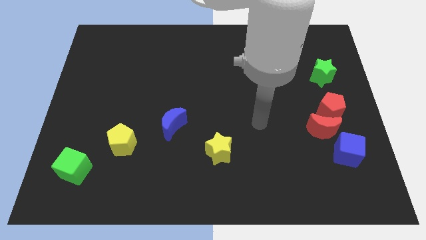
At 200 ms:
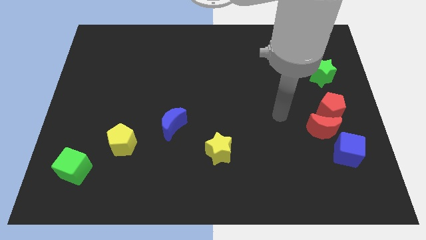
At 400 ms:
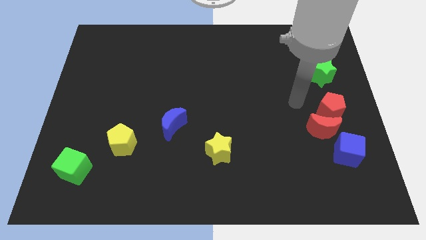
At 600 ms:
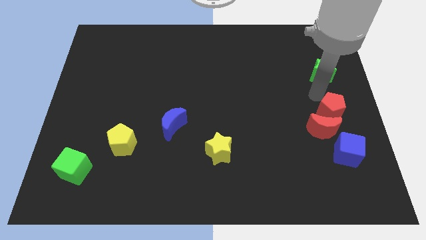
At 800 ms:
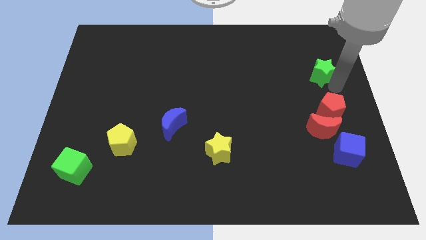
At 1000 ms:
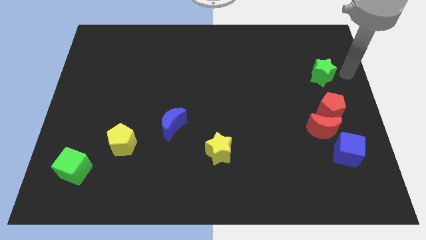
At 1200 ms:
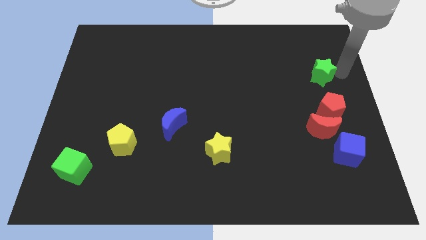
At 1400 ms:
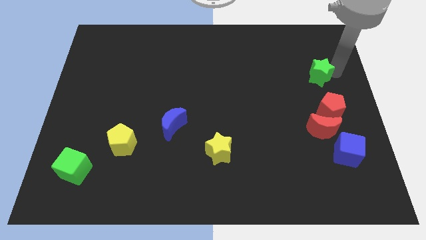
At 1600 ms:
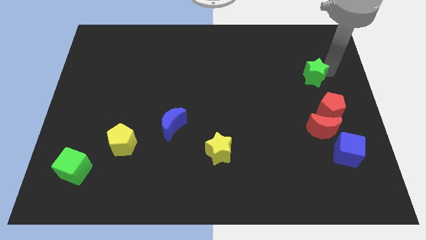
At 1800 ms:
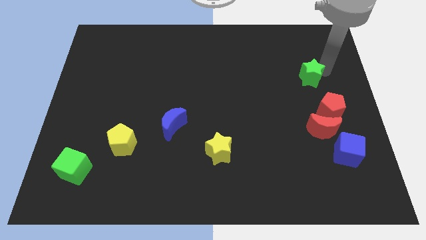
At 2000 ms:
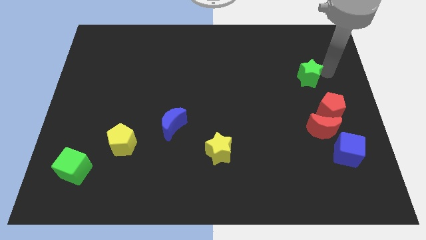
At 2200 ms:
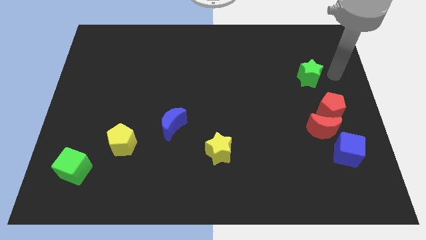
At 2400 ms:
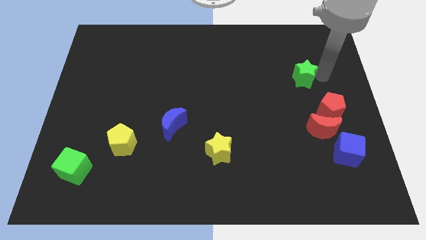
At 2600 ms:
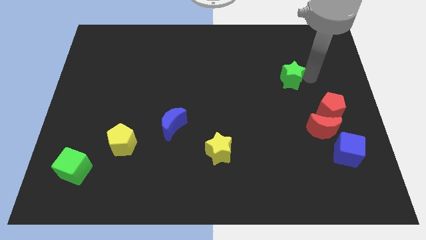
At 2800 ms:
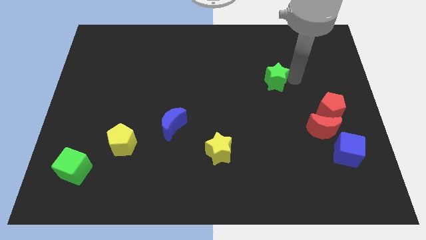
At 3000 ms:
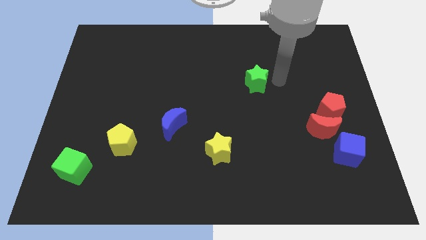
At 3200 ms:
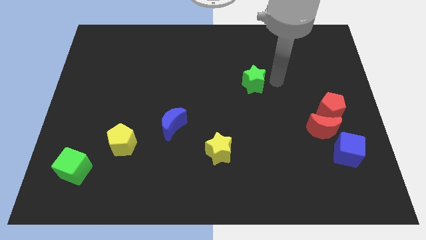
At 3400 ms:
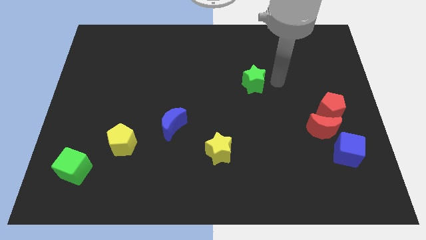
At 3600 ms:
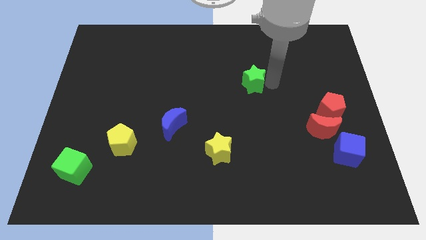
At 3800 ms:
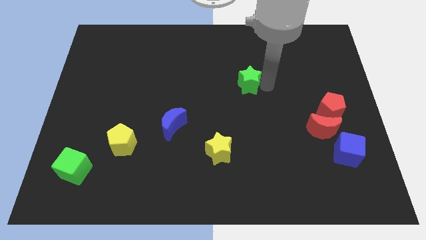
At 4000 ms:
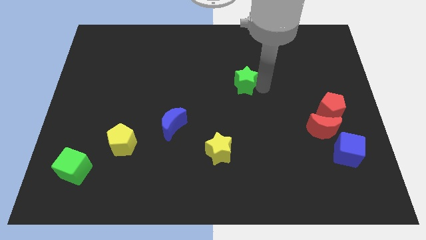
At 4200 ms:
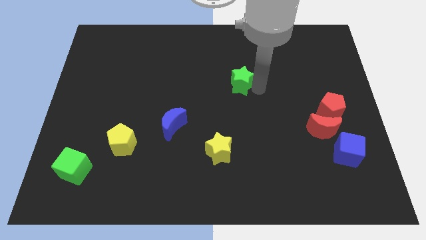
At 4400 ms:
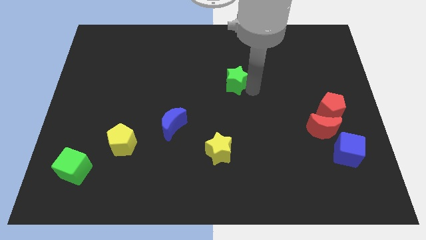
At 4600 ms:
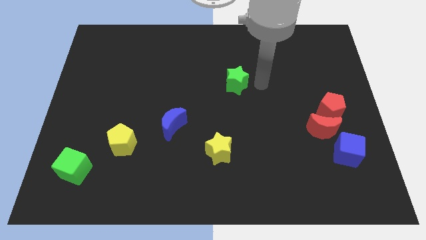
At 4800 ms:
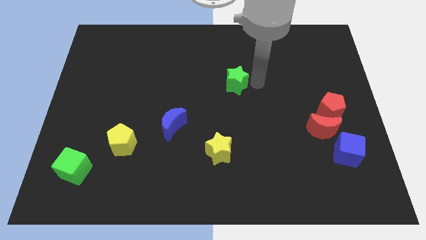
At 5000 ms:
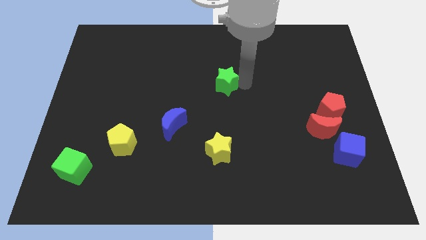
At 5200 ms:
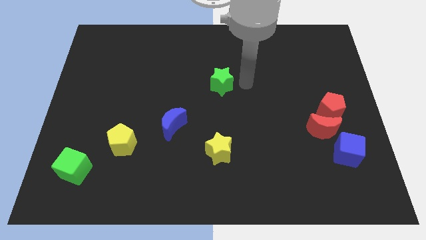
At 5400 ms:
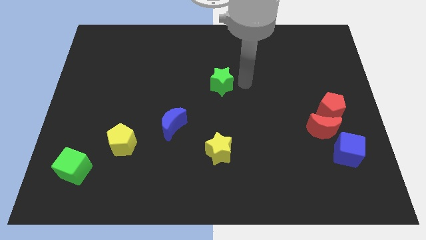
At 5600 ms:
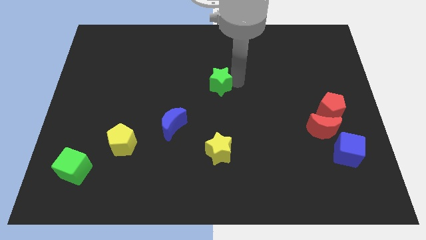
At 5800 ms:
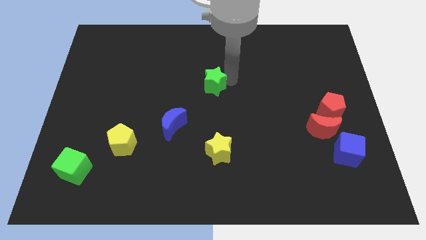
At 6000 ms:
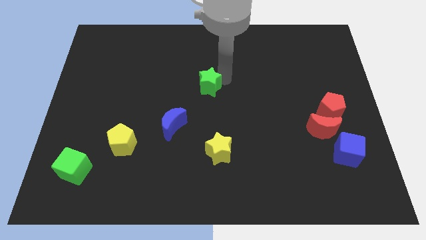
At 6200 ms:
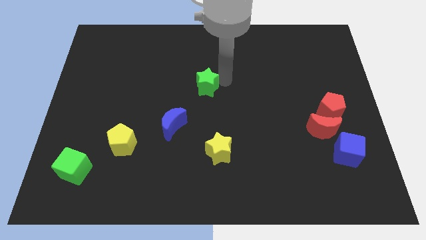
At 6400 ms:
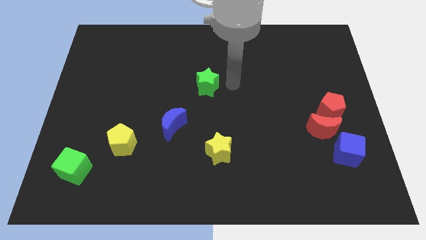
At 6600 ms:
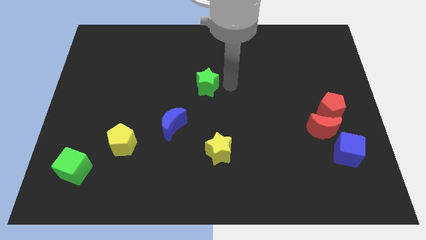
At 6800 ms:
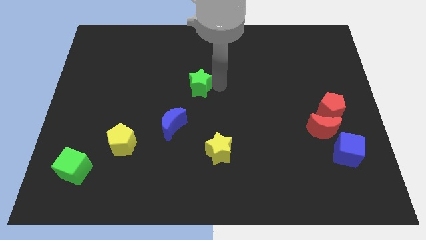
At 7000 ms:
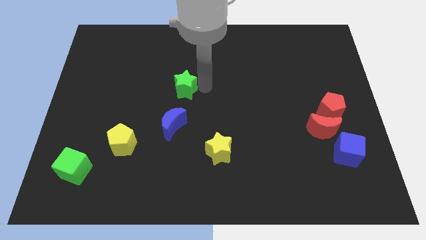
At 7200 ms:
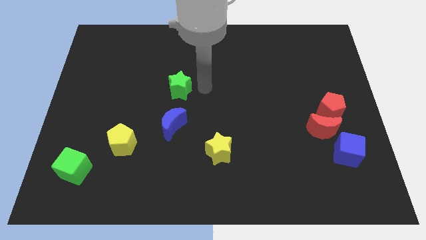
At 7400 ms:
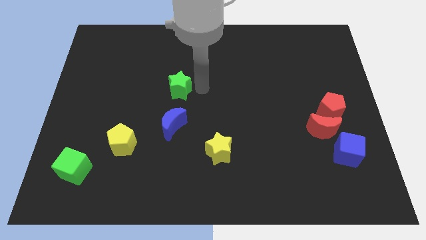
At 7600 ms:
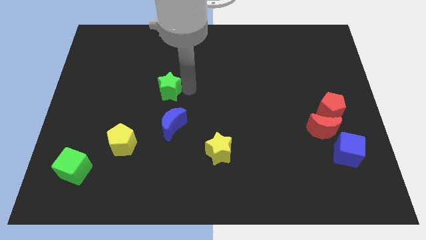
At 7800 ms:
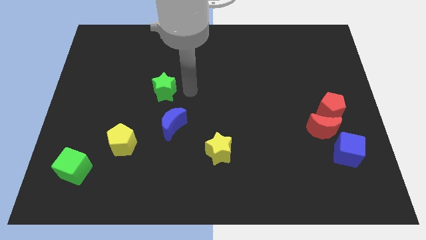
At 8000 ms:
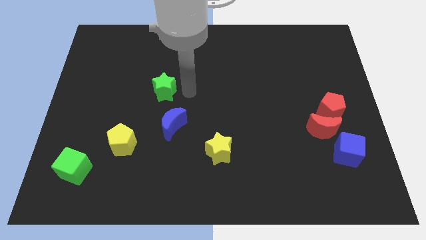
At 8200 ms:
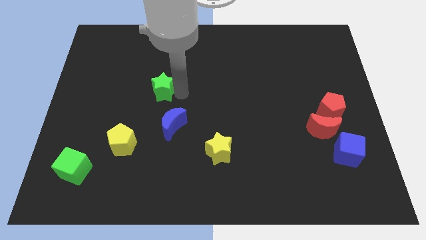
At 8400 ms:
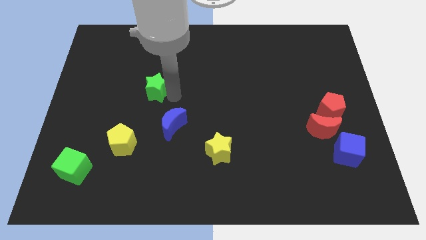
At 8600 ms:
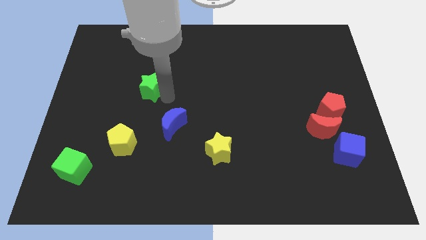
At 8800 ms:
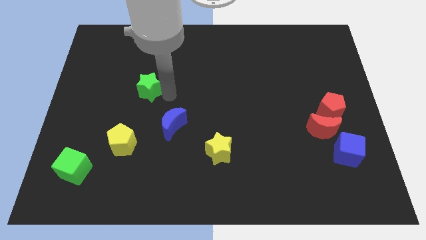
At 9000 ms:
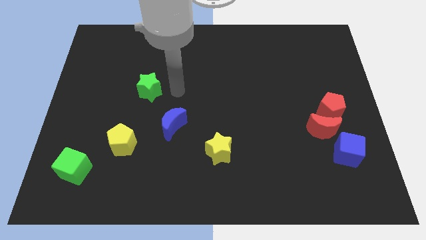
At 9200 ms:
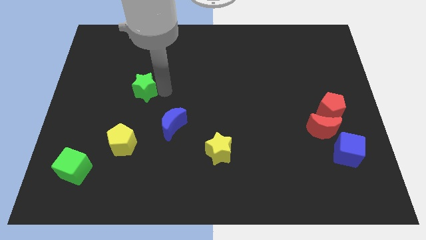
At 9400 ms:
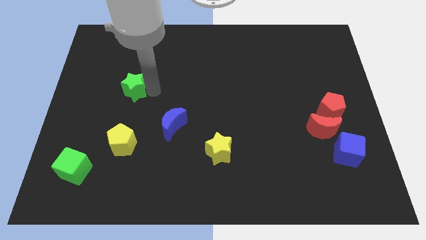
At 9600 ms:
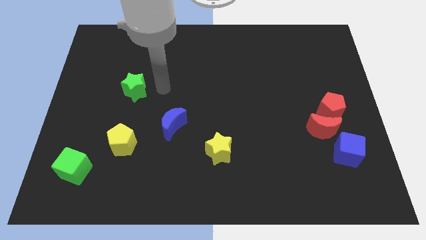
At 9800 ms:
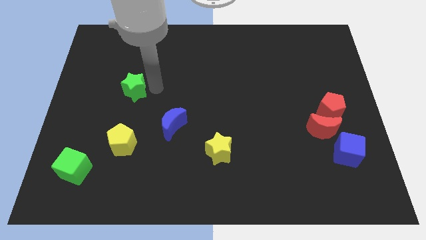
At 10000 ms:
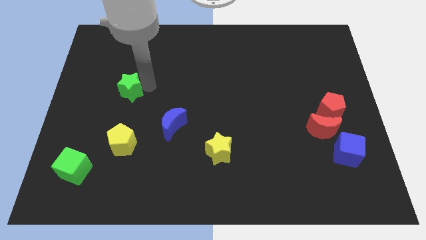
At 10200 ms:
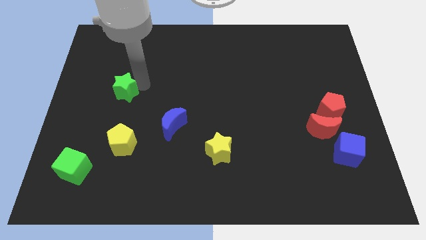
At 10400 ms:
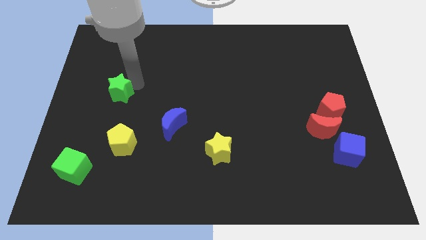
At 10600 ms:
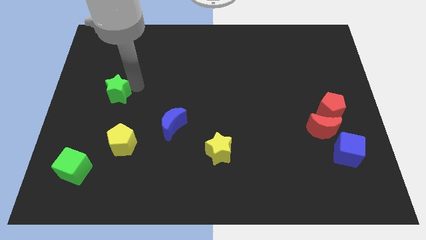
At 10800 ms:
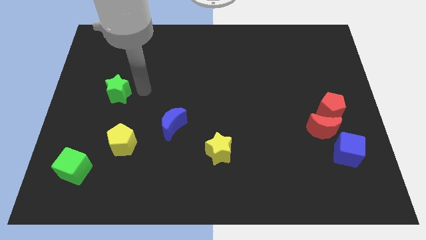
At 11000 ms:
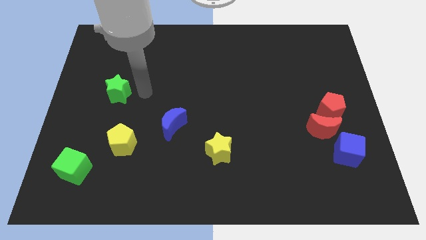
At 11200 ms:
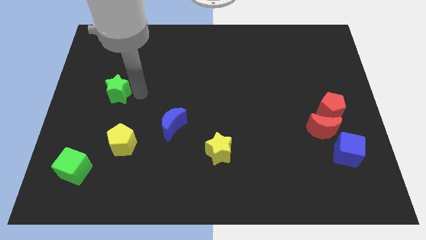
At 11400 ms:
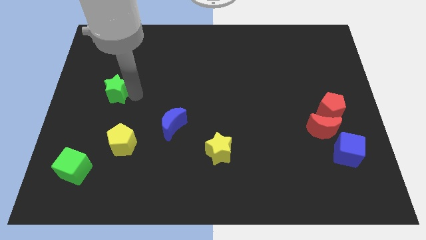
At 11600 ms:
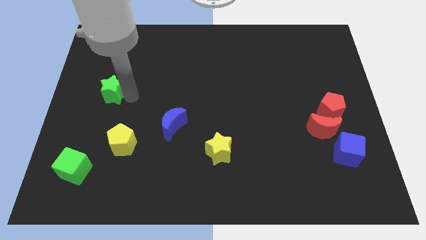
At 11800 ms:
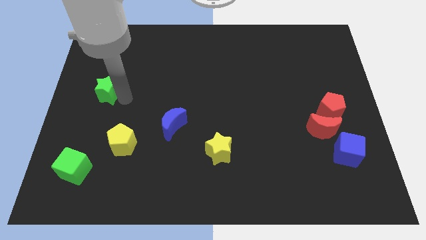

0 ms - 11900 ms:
move the green star to the center left

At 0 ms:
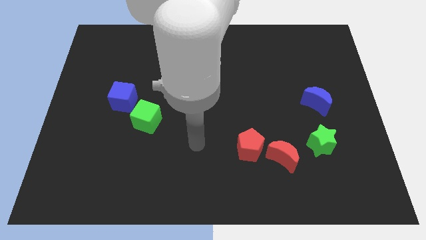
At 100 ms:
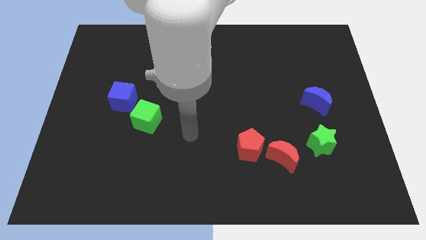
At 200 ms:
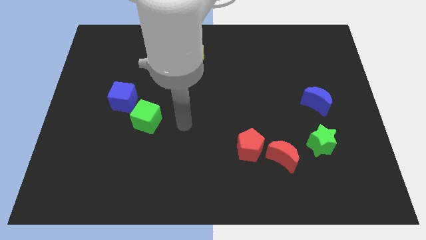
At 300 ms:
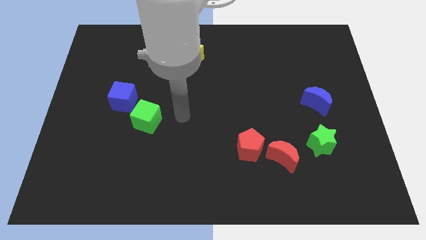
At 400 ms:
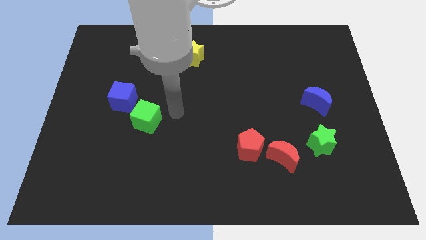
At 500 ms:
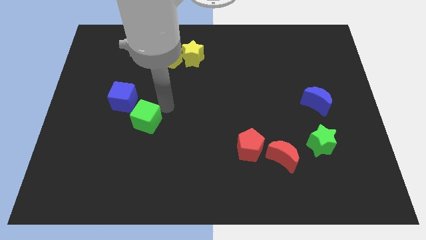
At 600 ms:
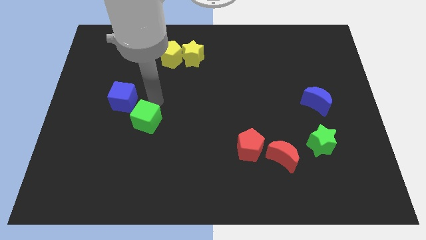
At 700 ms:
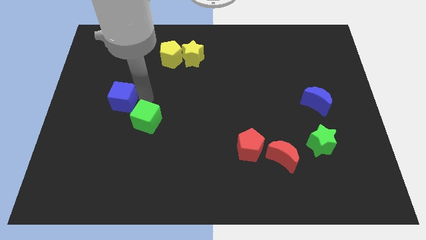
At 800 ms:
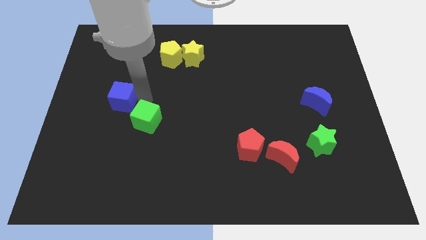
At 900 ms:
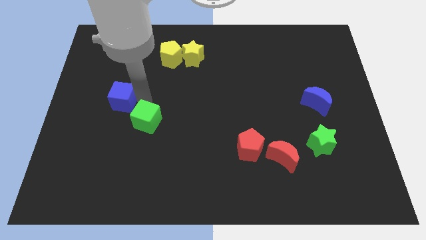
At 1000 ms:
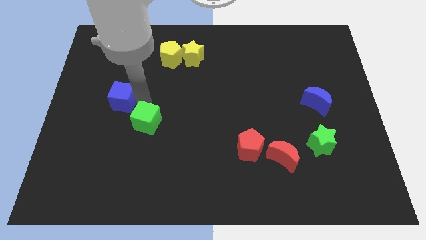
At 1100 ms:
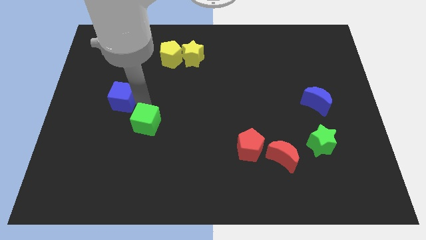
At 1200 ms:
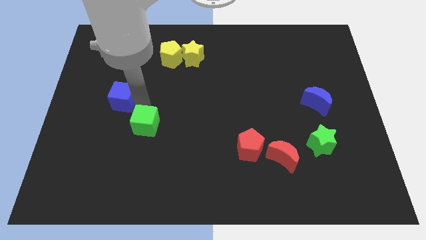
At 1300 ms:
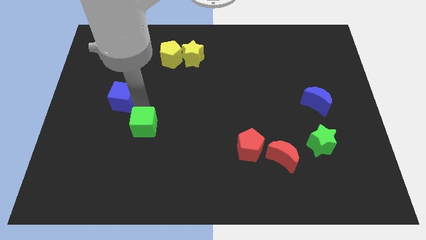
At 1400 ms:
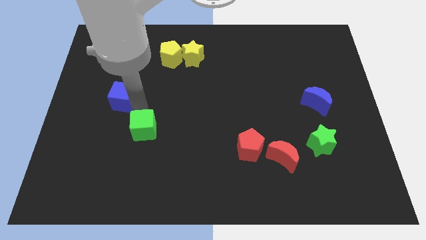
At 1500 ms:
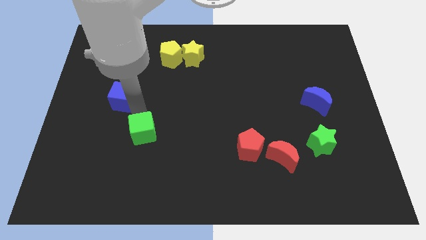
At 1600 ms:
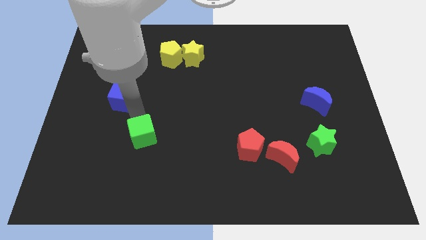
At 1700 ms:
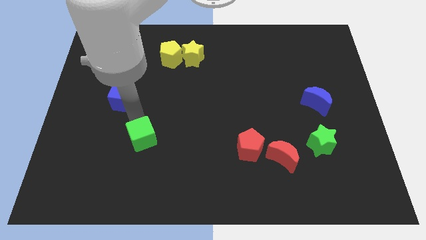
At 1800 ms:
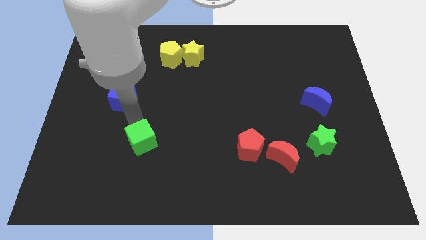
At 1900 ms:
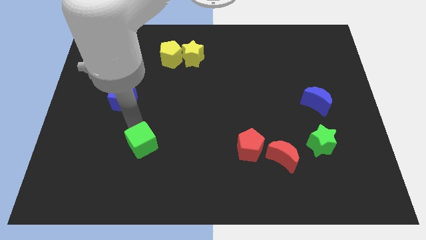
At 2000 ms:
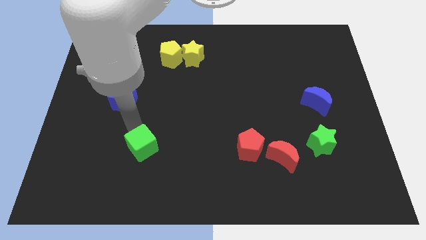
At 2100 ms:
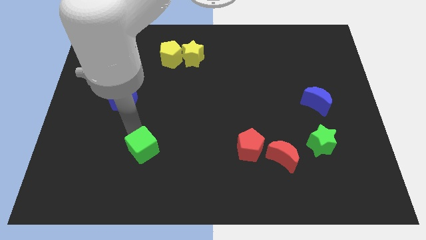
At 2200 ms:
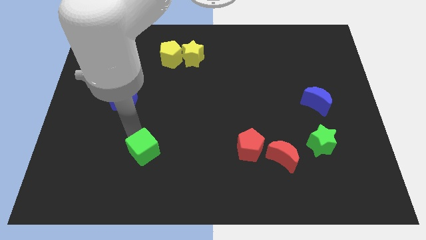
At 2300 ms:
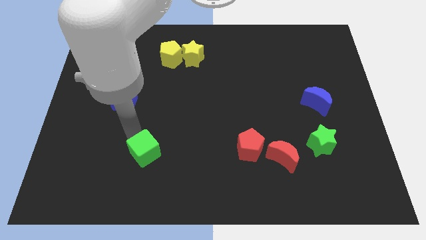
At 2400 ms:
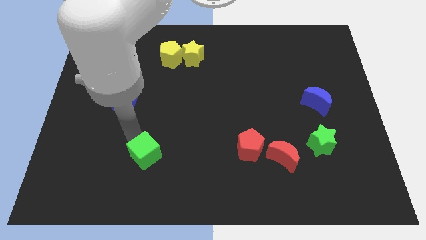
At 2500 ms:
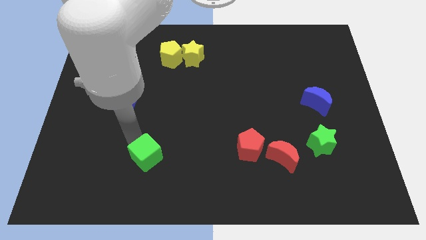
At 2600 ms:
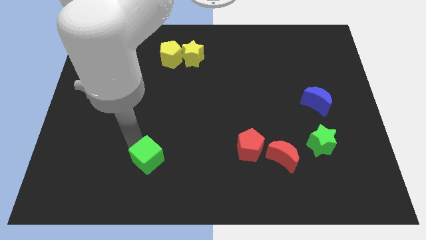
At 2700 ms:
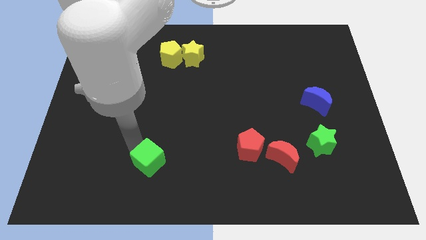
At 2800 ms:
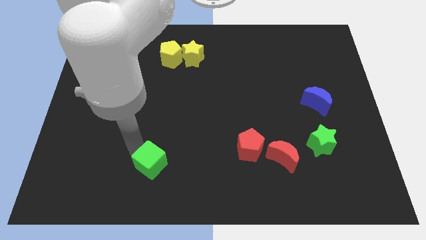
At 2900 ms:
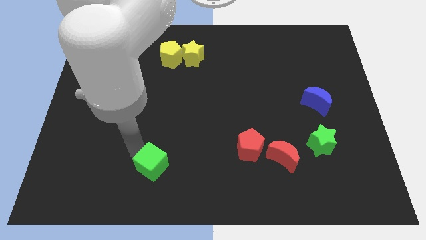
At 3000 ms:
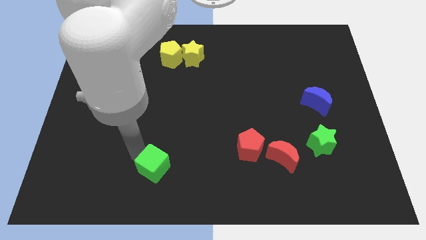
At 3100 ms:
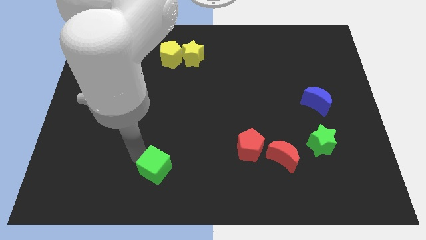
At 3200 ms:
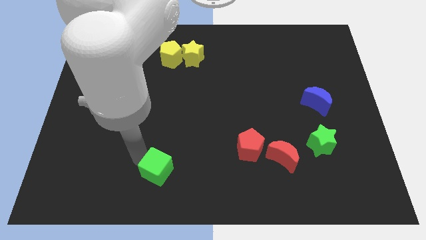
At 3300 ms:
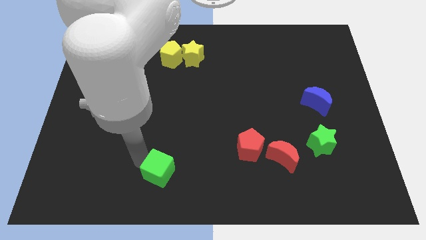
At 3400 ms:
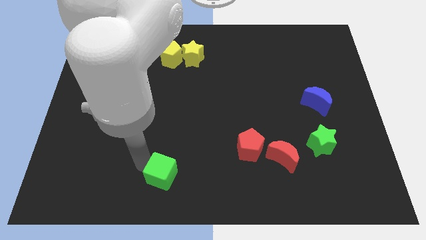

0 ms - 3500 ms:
push the green cube to the bottom side
